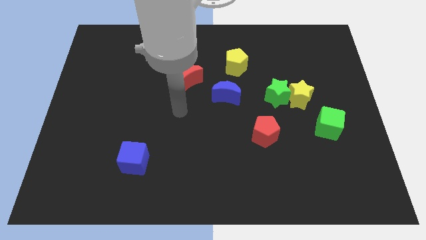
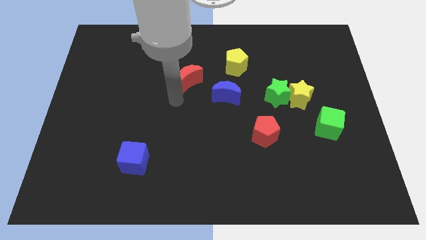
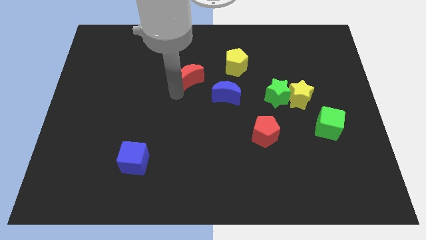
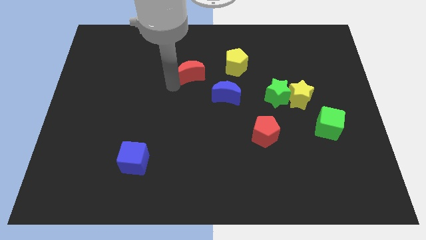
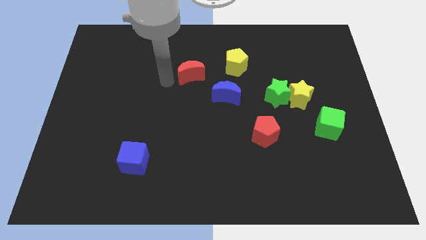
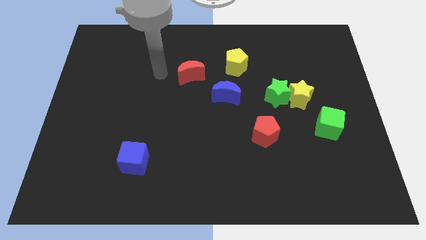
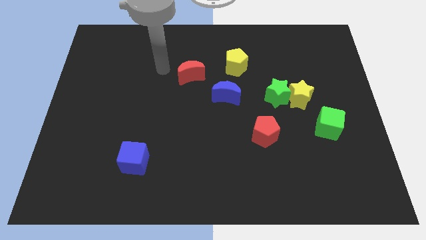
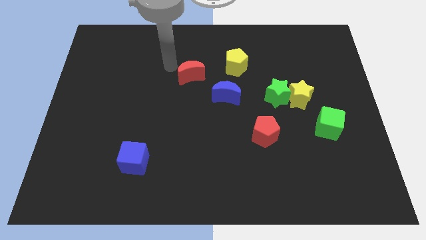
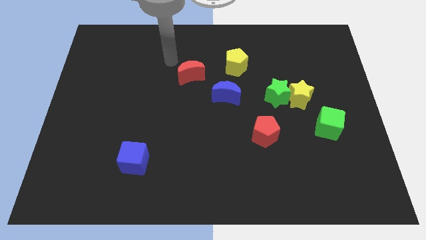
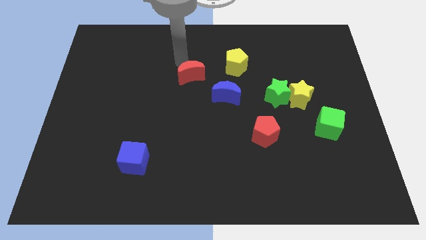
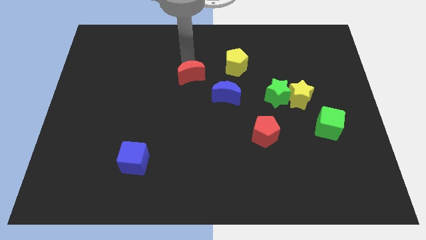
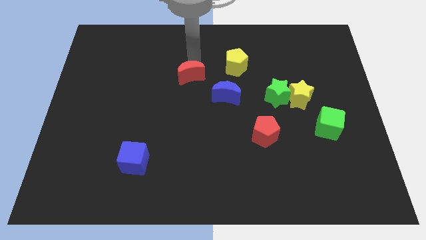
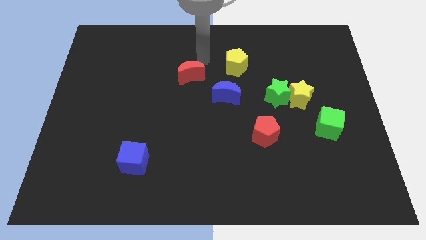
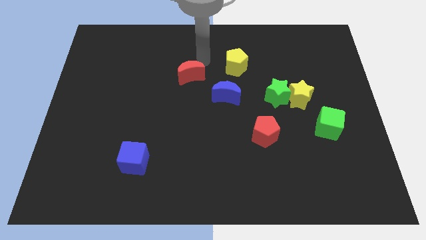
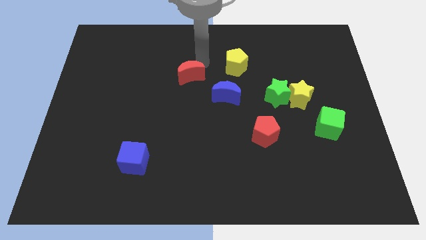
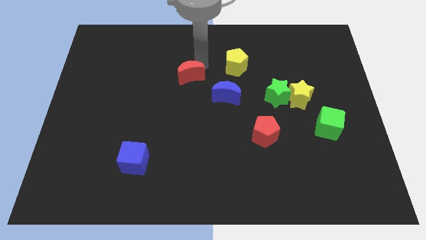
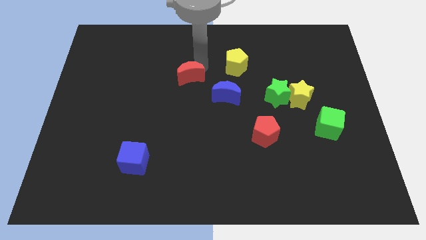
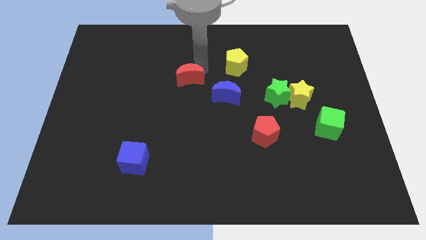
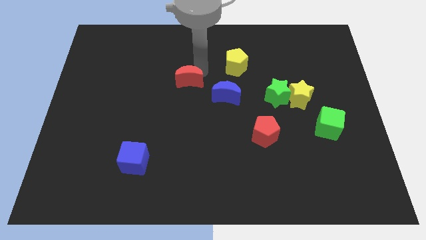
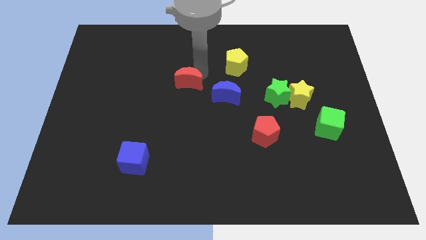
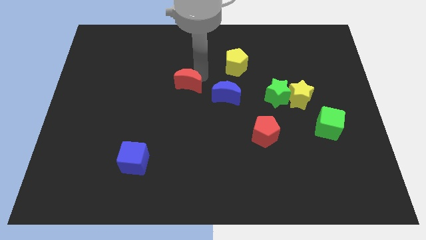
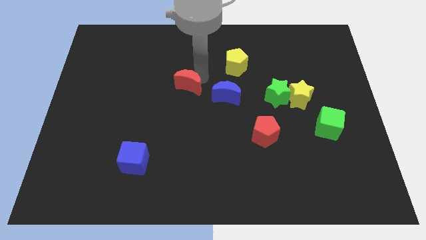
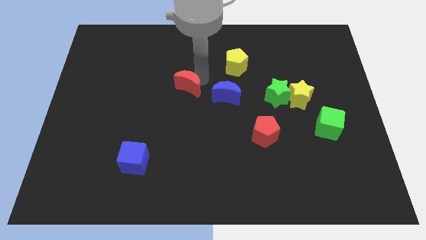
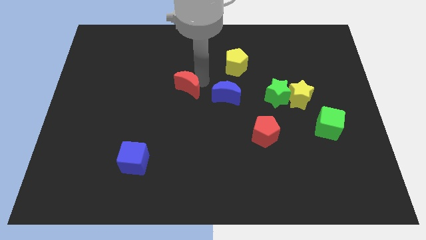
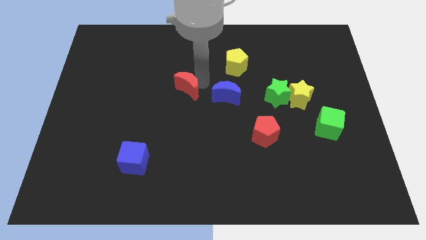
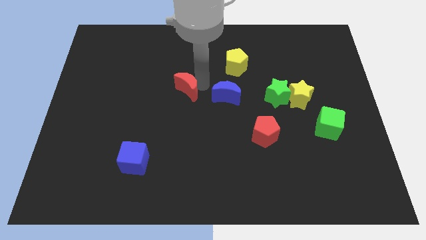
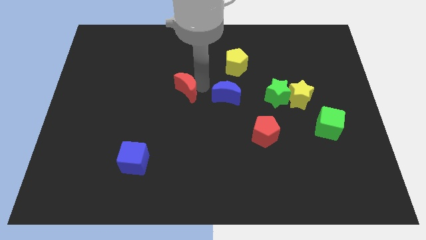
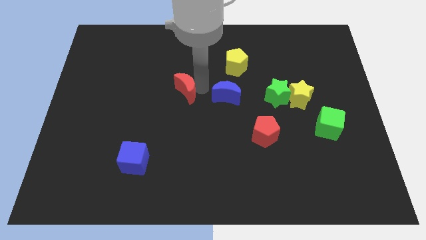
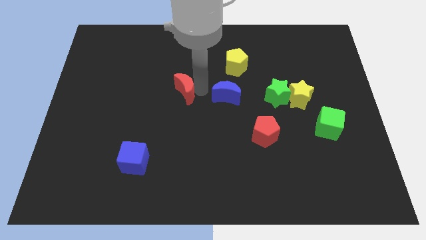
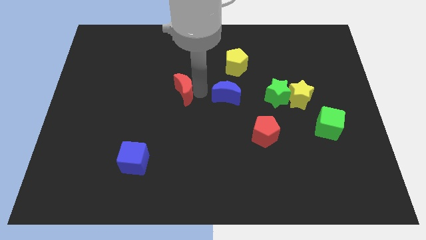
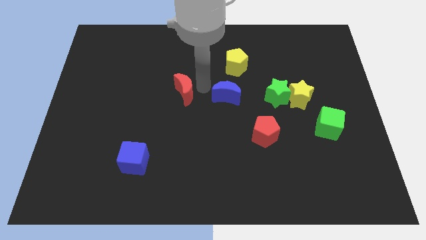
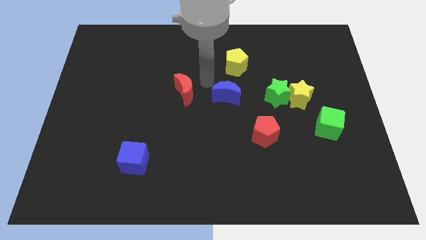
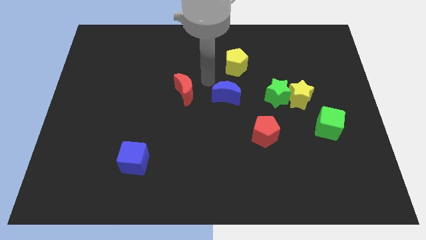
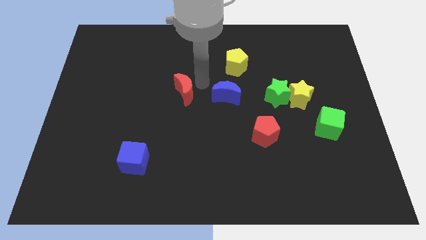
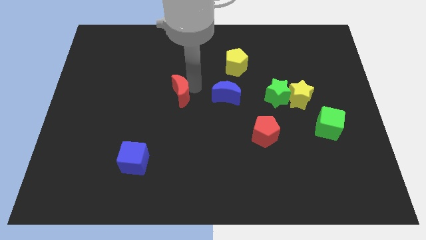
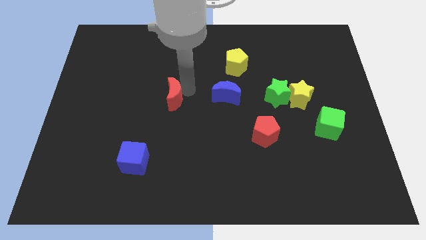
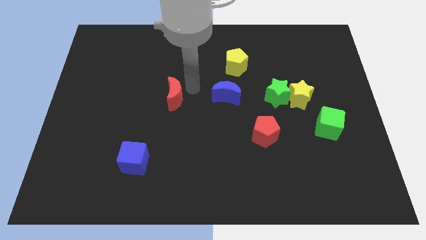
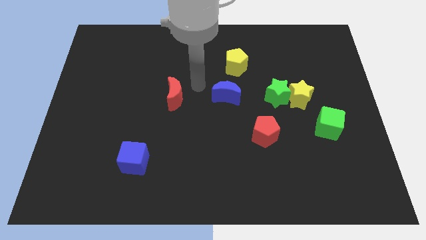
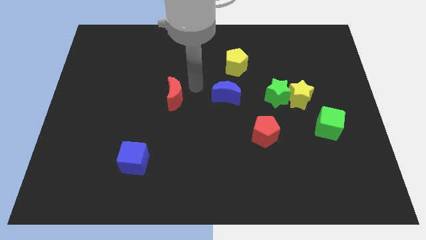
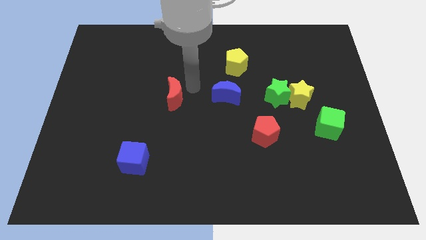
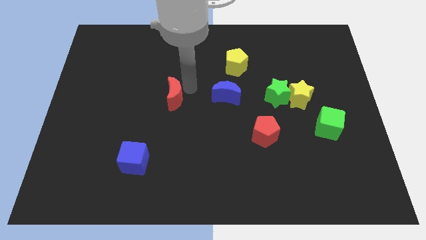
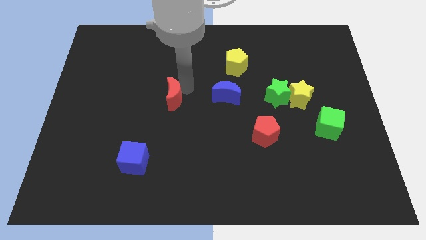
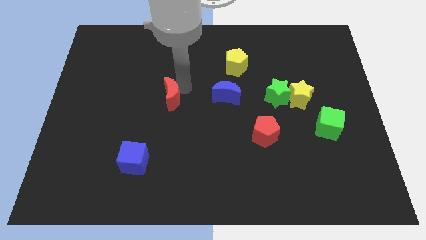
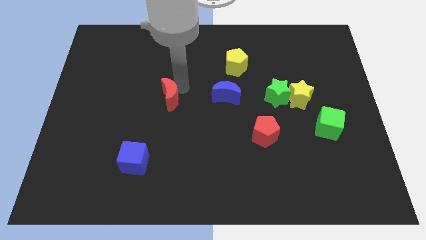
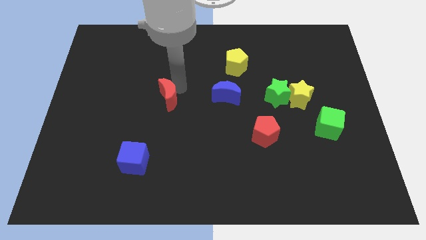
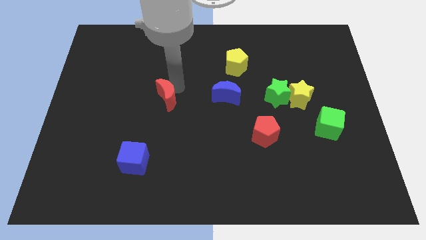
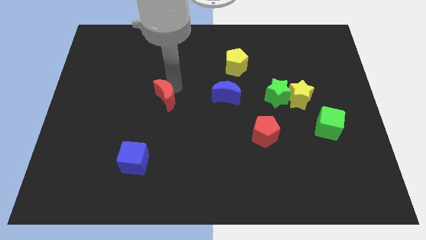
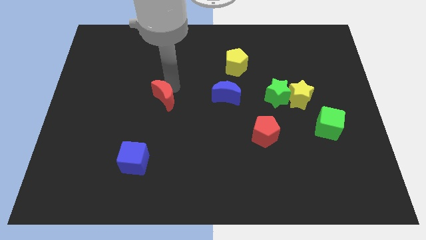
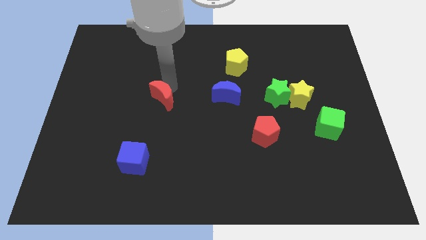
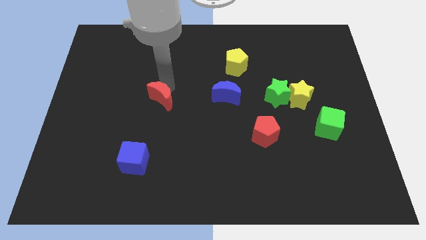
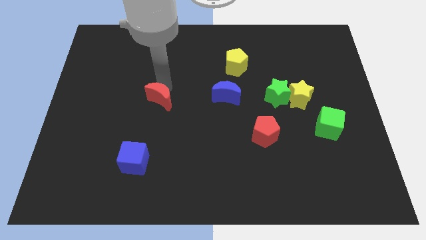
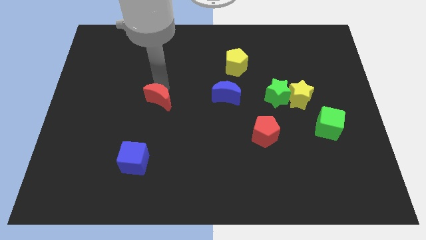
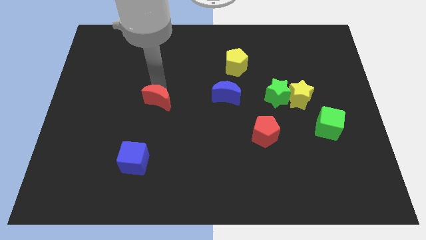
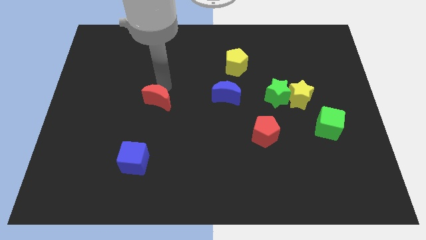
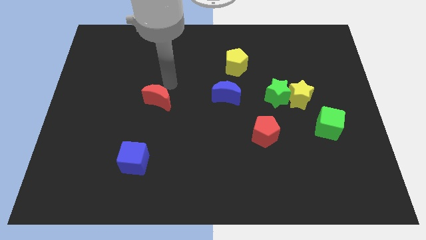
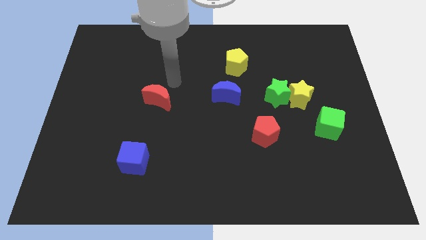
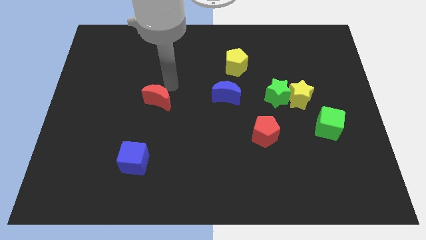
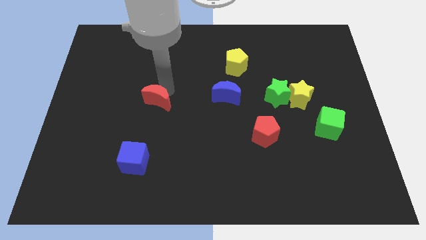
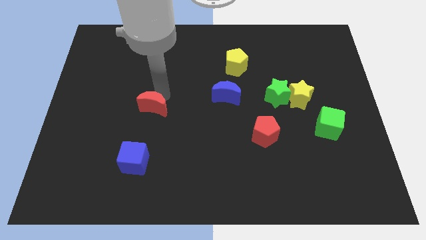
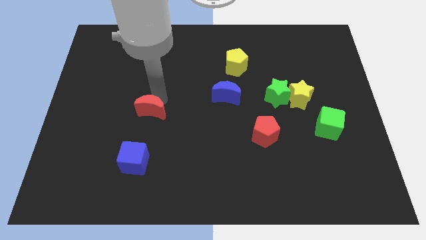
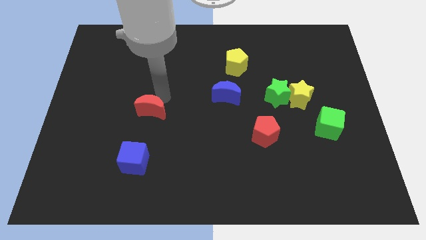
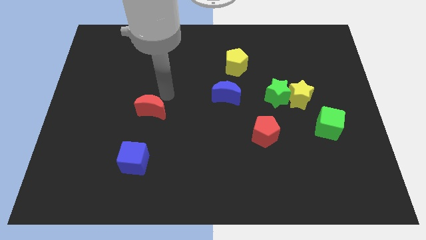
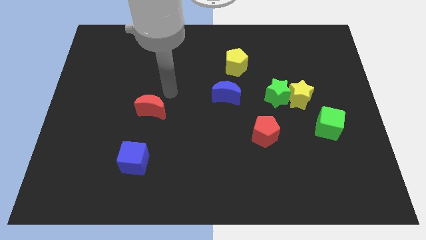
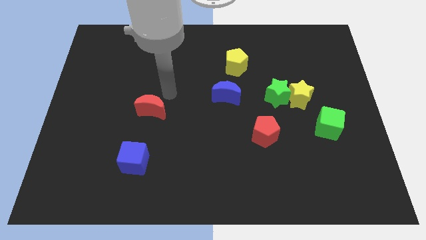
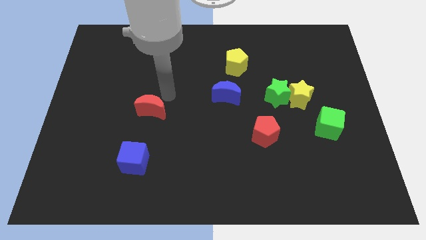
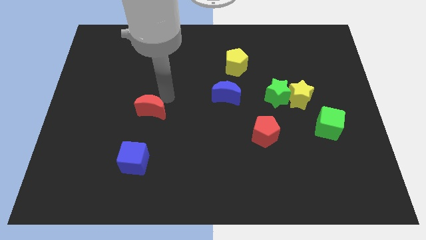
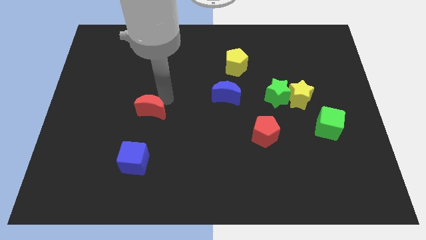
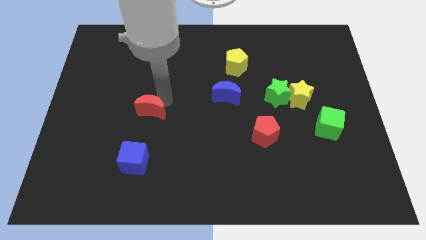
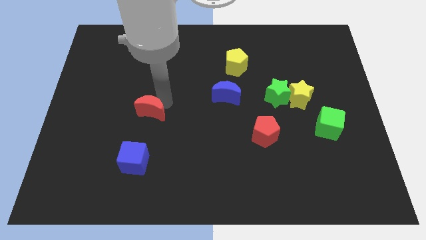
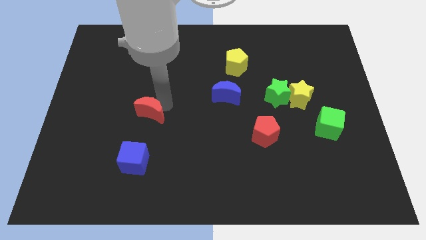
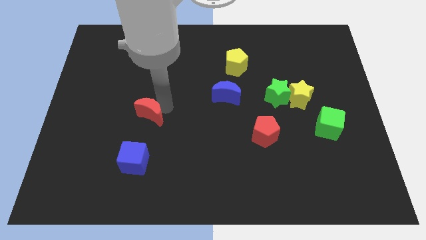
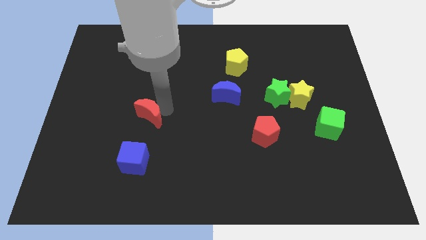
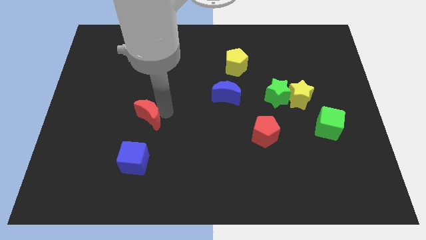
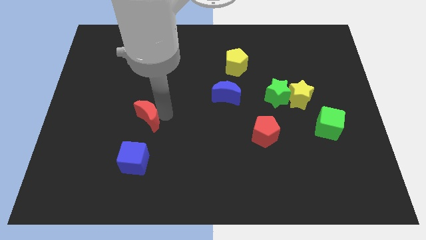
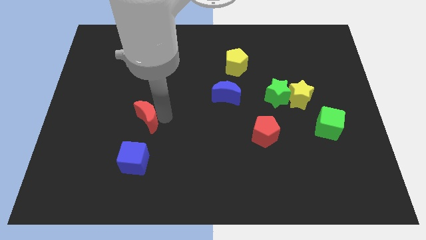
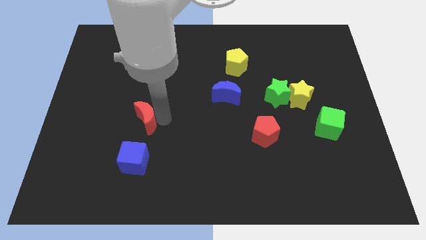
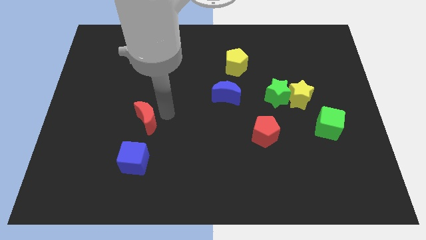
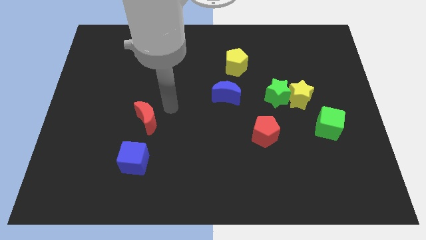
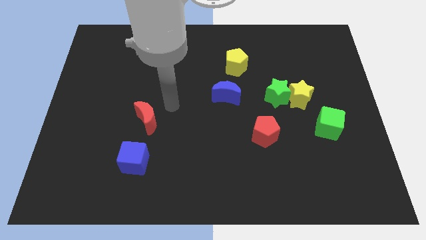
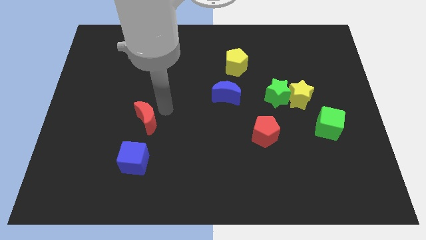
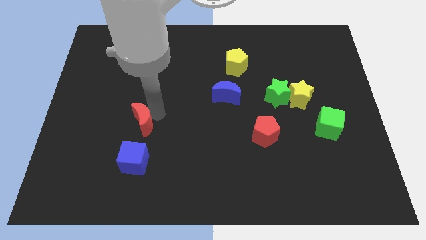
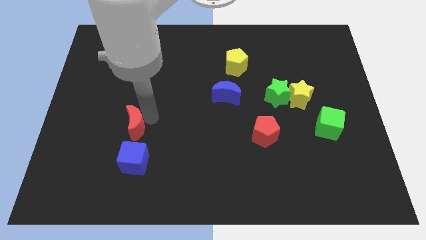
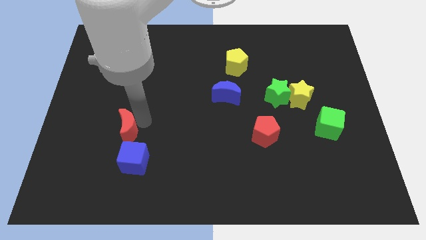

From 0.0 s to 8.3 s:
push the red moon diagonally up and to the left of the blue cube
